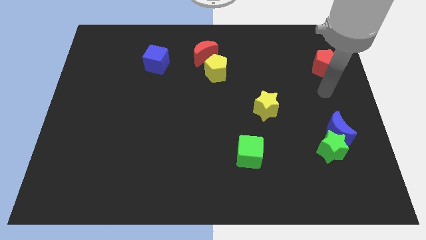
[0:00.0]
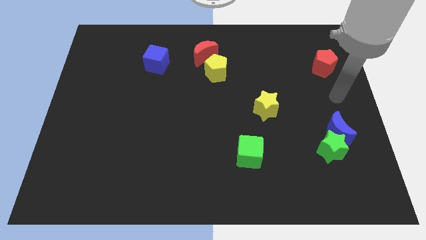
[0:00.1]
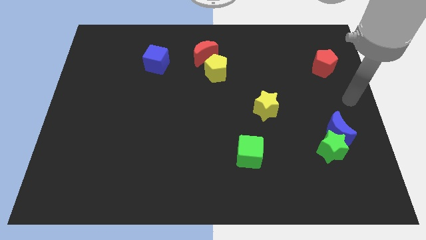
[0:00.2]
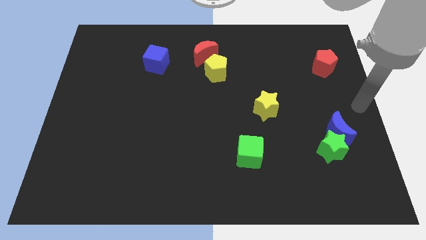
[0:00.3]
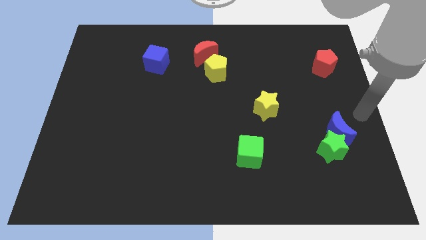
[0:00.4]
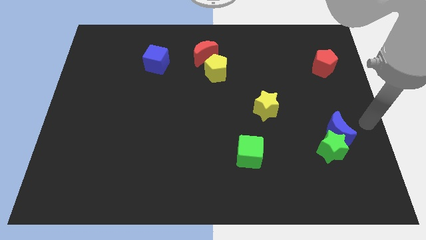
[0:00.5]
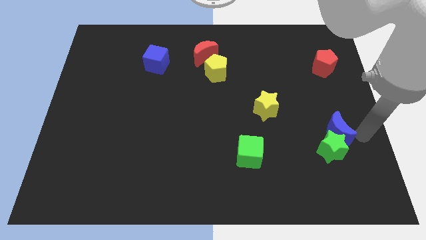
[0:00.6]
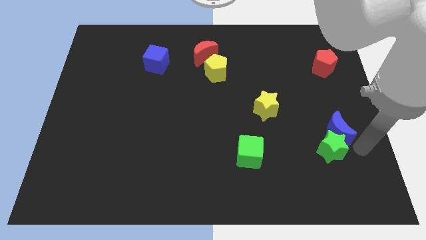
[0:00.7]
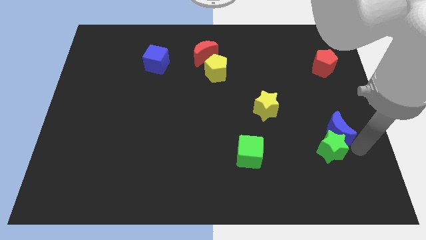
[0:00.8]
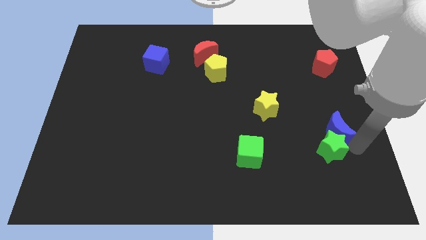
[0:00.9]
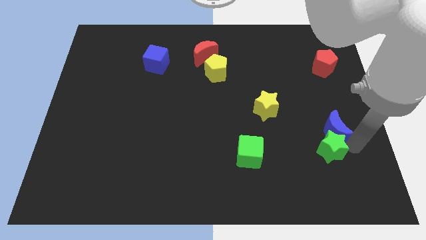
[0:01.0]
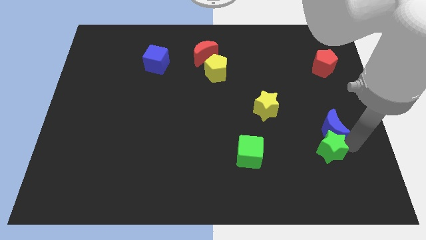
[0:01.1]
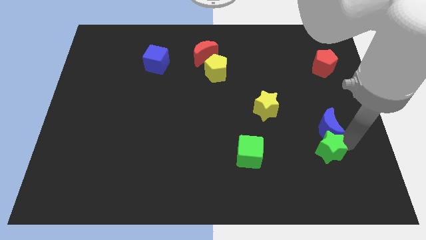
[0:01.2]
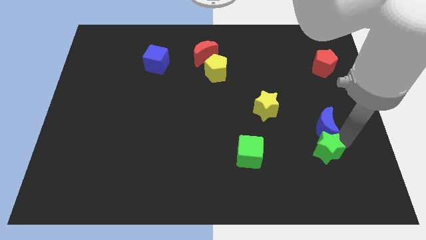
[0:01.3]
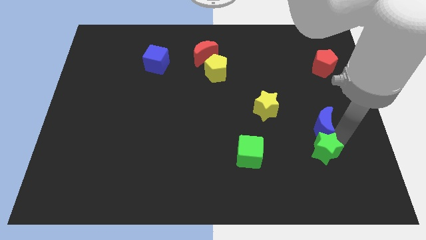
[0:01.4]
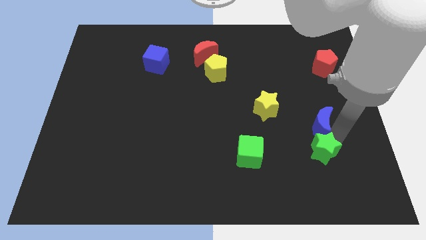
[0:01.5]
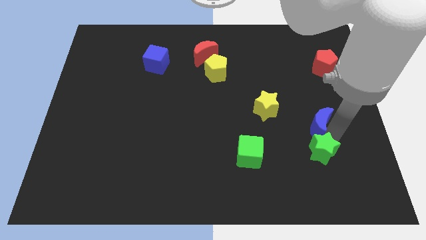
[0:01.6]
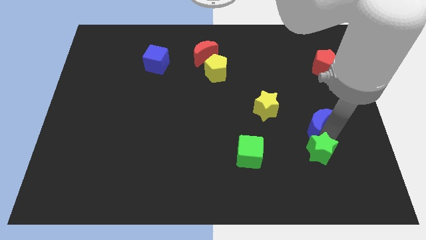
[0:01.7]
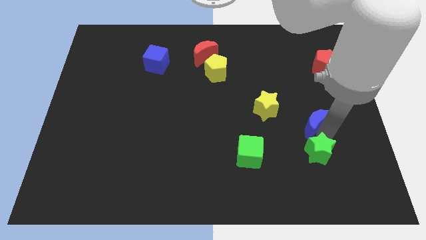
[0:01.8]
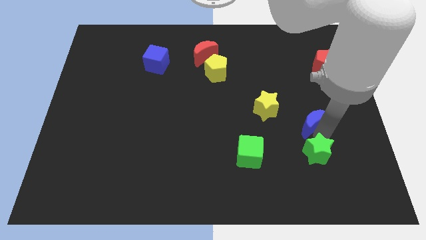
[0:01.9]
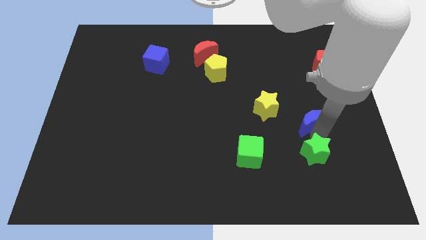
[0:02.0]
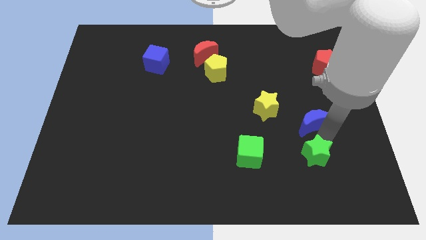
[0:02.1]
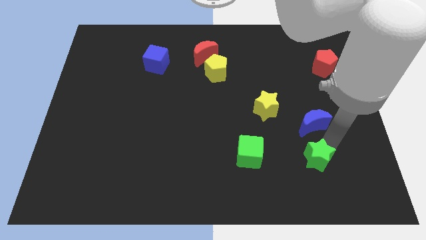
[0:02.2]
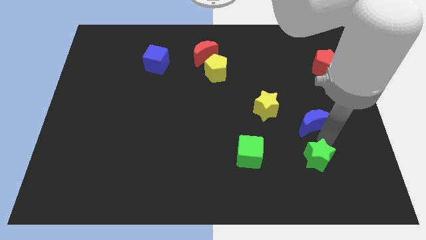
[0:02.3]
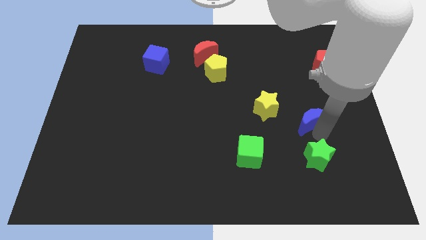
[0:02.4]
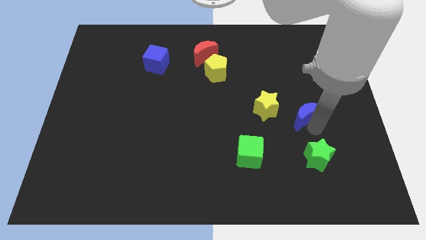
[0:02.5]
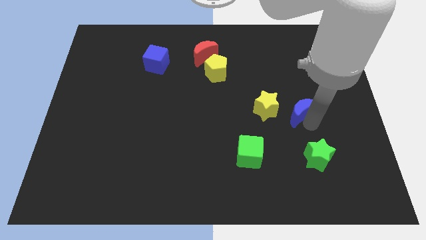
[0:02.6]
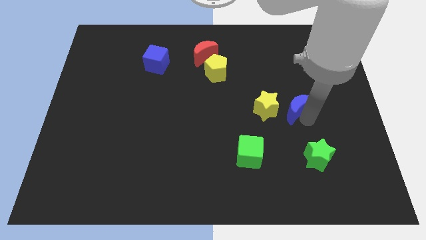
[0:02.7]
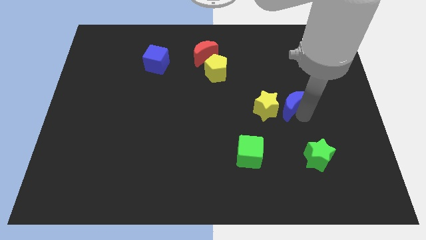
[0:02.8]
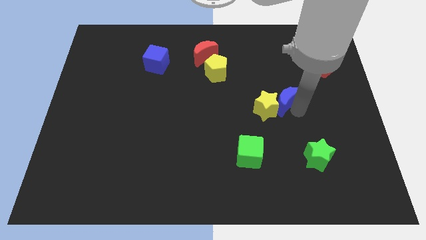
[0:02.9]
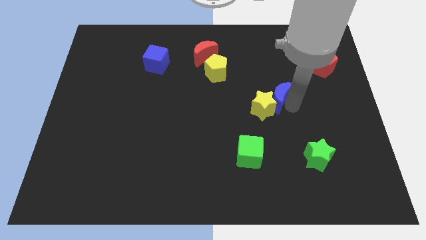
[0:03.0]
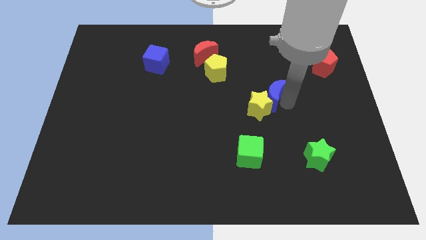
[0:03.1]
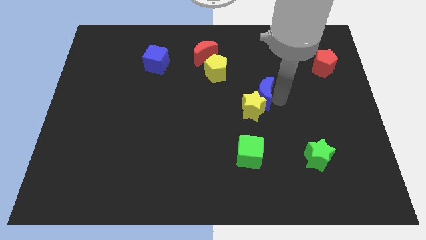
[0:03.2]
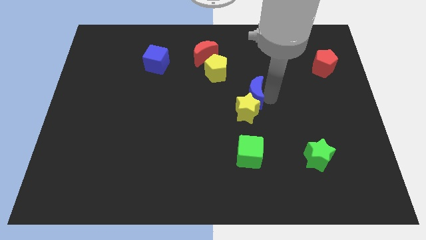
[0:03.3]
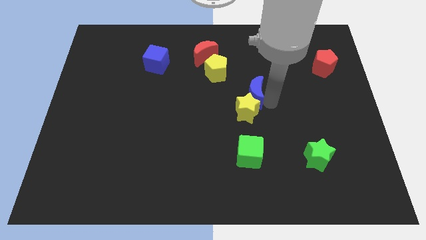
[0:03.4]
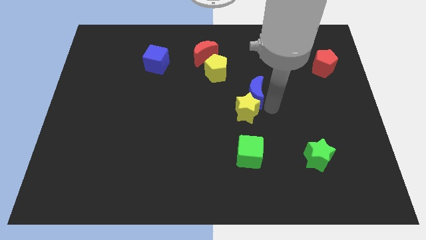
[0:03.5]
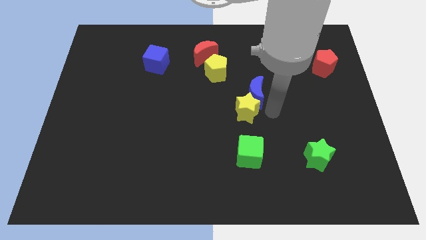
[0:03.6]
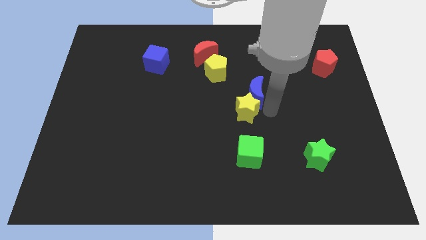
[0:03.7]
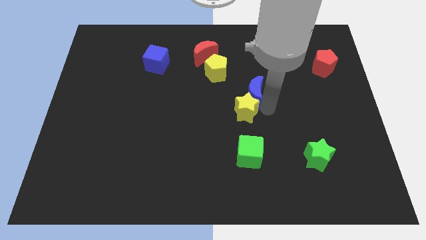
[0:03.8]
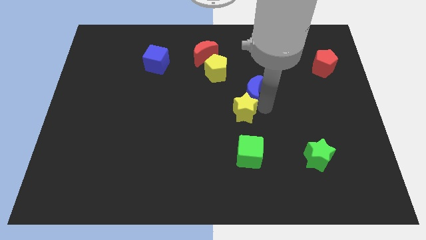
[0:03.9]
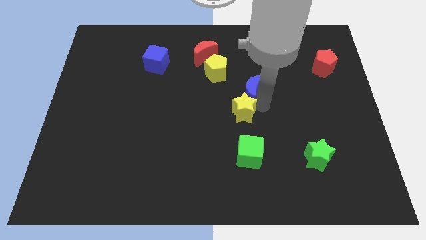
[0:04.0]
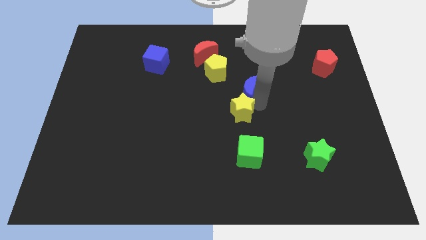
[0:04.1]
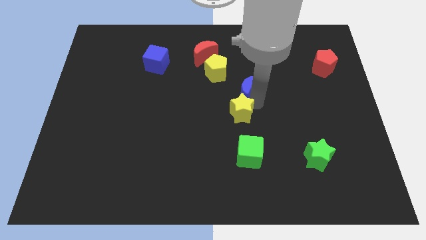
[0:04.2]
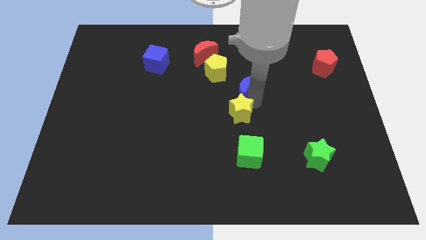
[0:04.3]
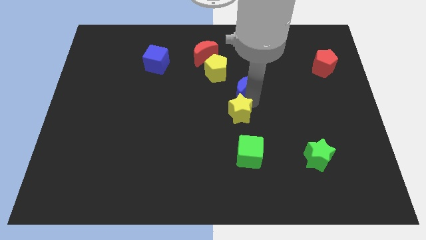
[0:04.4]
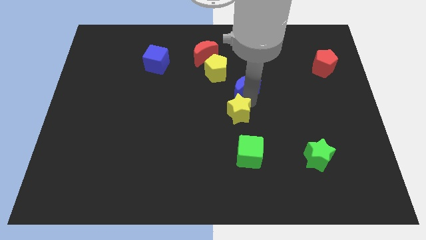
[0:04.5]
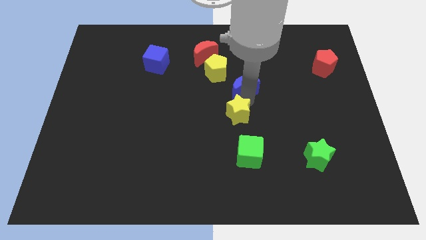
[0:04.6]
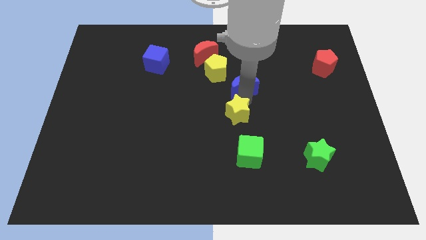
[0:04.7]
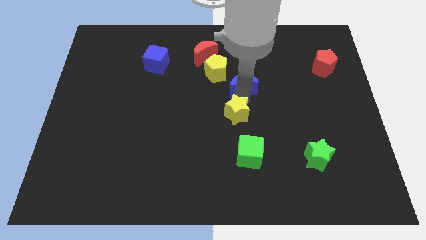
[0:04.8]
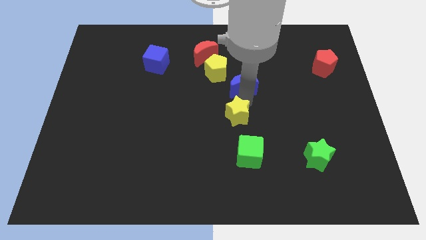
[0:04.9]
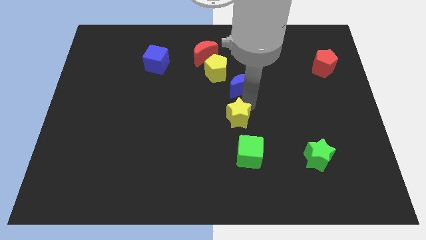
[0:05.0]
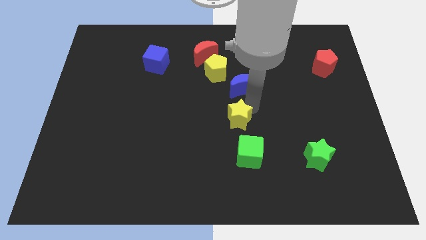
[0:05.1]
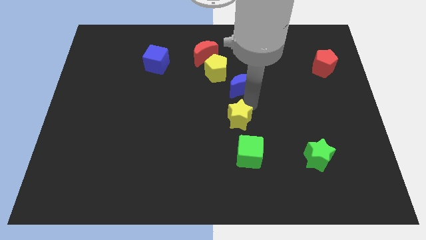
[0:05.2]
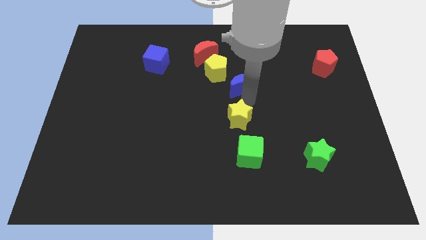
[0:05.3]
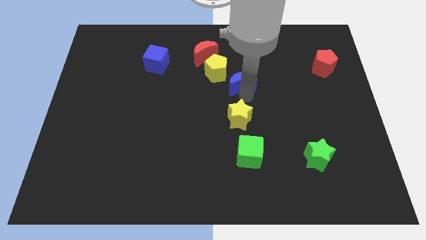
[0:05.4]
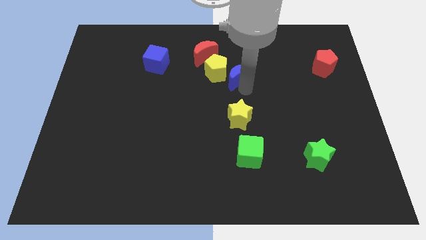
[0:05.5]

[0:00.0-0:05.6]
push the blue moon towards the yellow pentagon

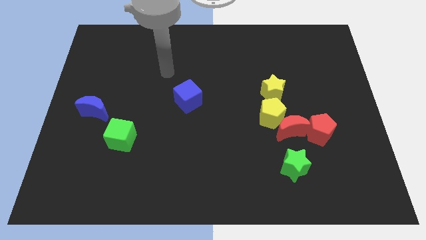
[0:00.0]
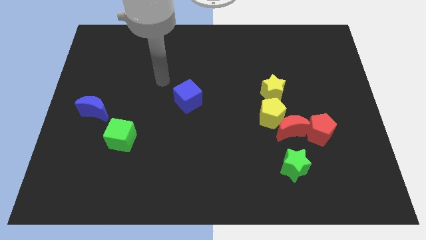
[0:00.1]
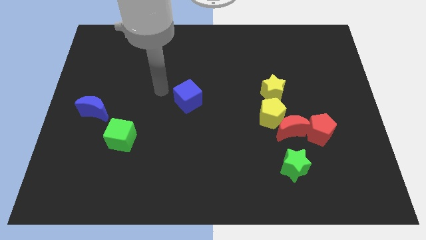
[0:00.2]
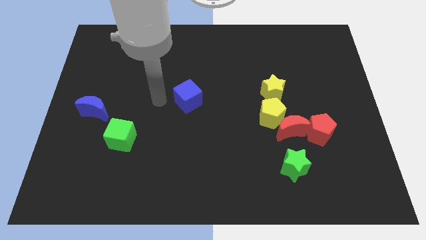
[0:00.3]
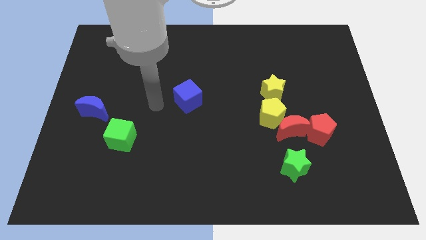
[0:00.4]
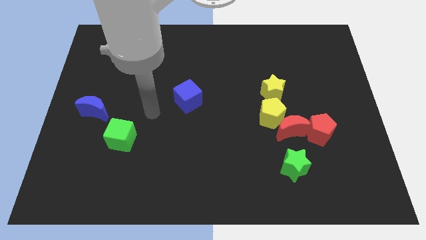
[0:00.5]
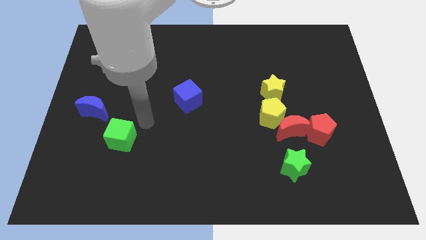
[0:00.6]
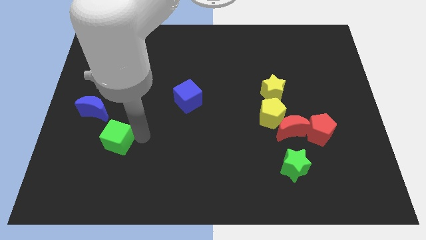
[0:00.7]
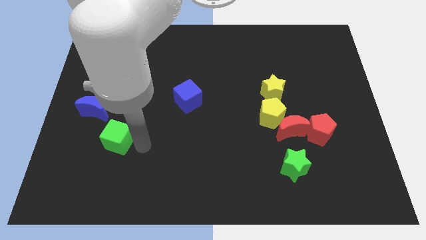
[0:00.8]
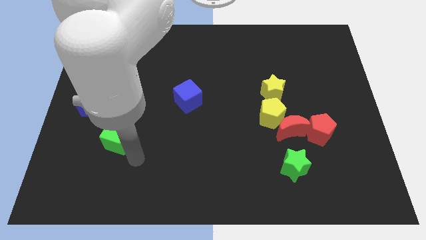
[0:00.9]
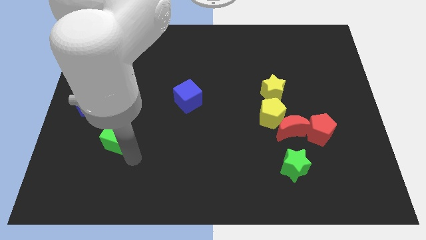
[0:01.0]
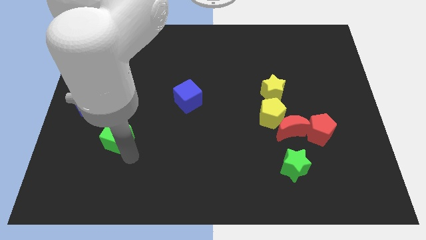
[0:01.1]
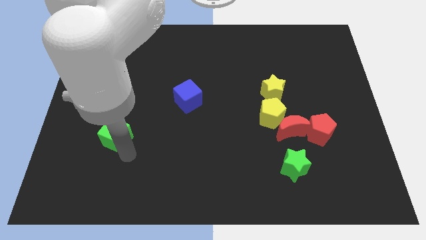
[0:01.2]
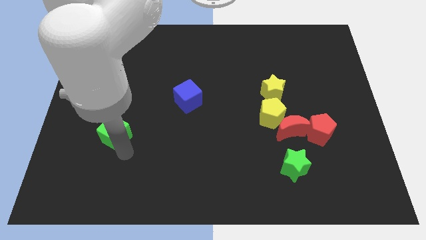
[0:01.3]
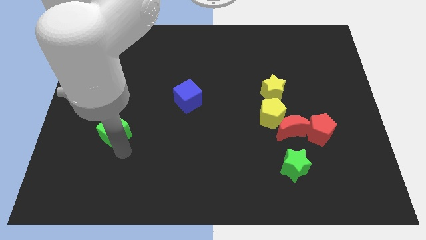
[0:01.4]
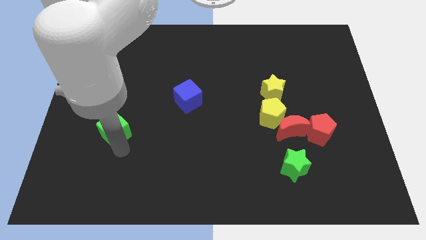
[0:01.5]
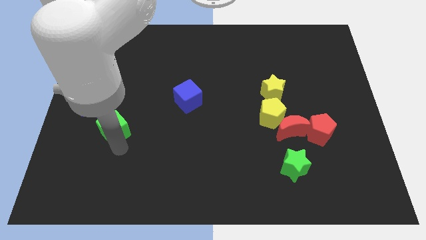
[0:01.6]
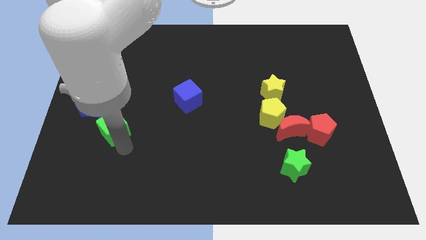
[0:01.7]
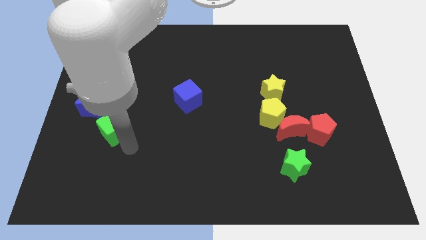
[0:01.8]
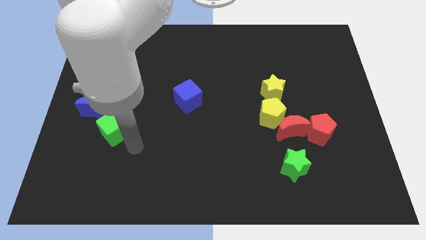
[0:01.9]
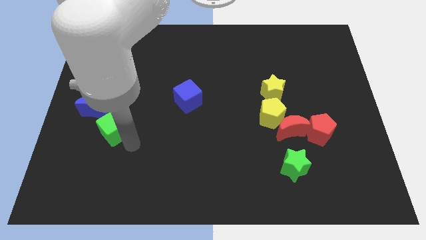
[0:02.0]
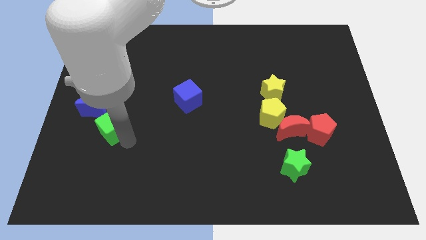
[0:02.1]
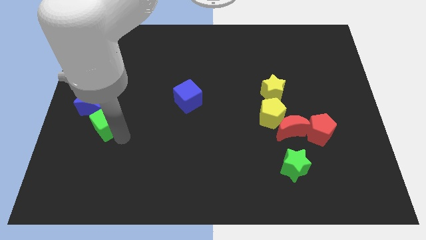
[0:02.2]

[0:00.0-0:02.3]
slide the green cube next to the blue moon

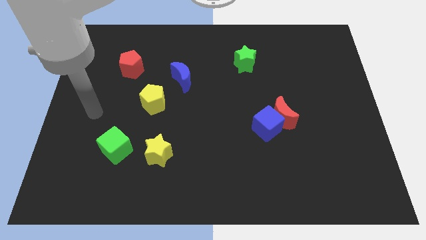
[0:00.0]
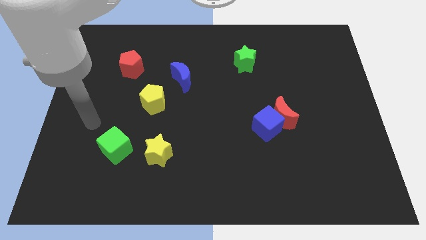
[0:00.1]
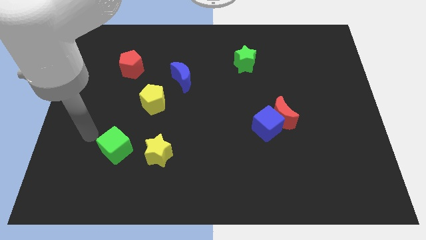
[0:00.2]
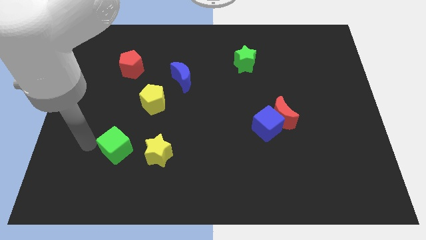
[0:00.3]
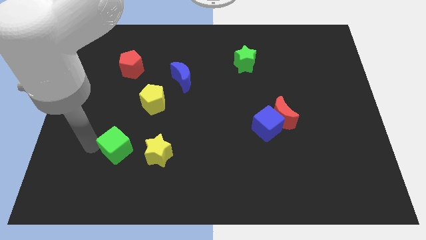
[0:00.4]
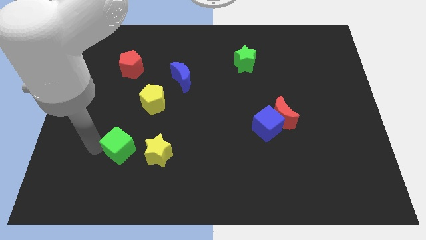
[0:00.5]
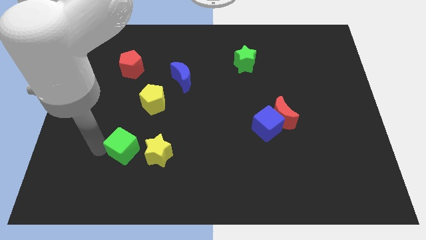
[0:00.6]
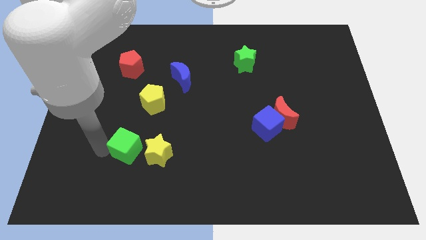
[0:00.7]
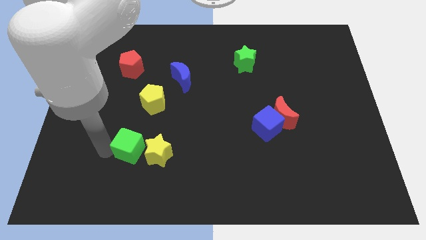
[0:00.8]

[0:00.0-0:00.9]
put the green cube towards the yellow star
